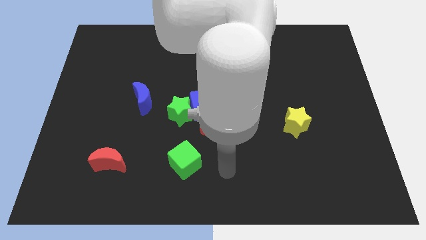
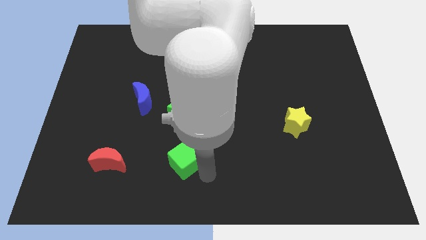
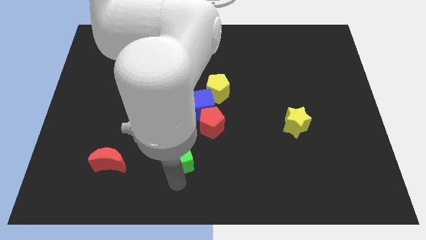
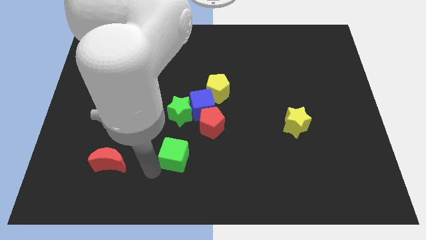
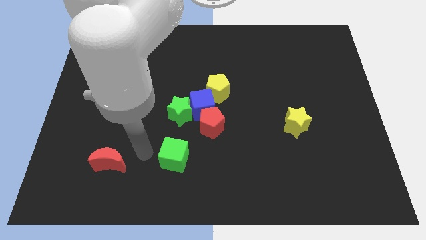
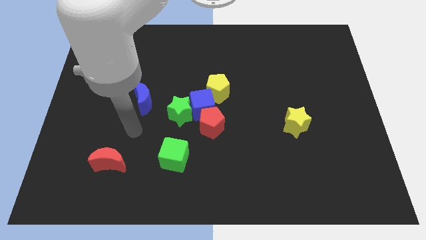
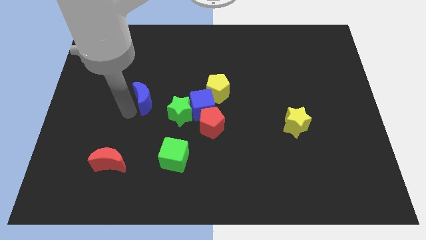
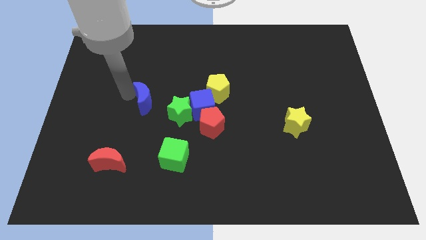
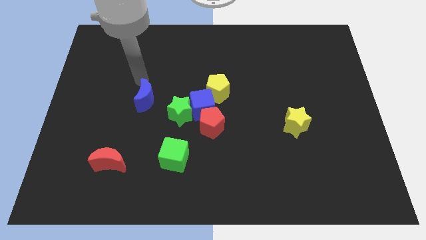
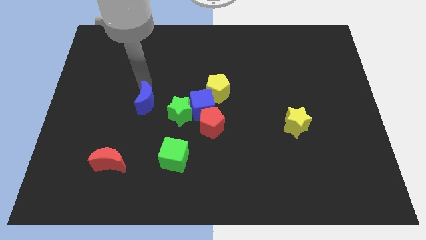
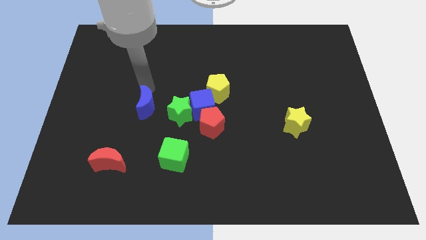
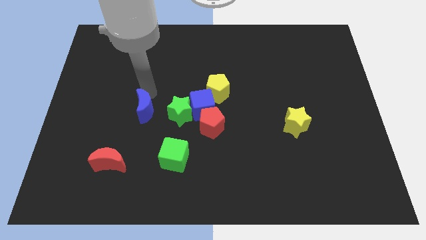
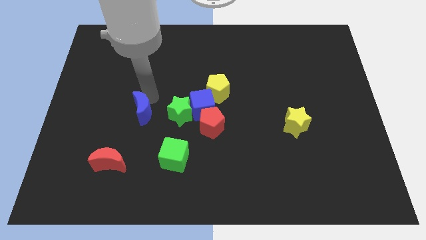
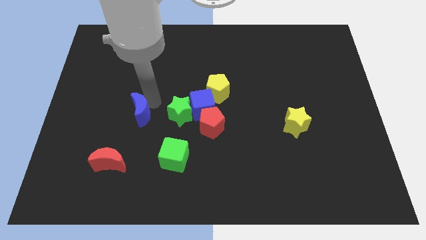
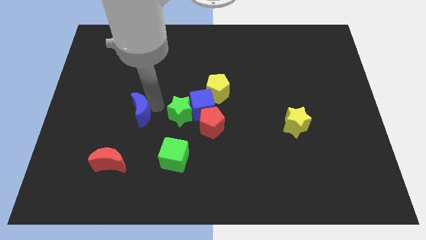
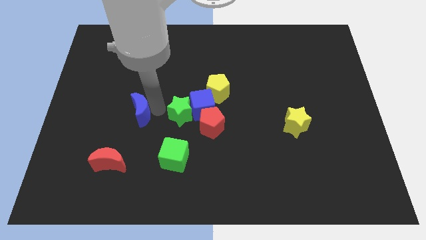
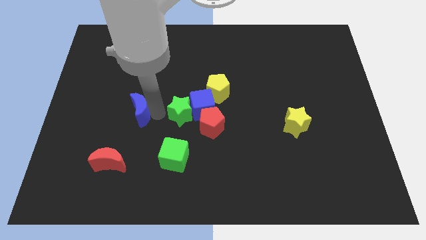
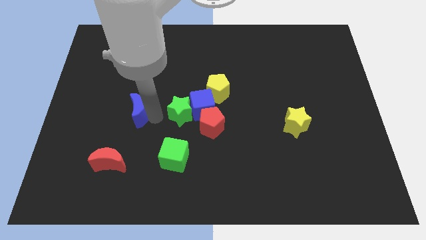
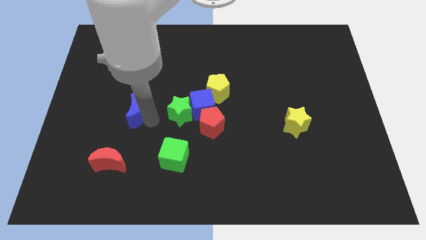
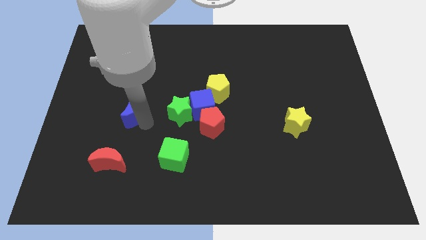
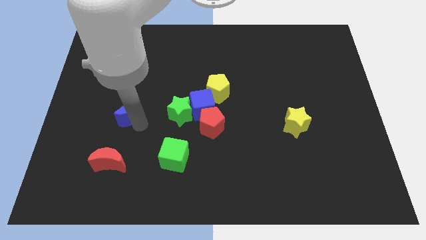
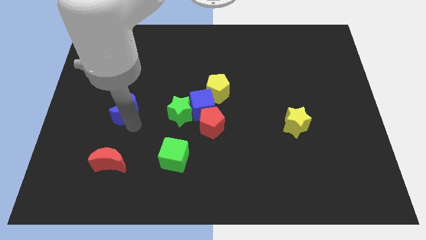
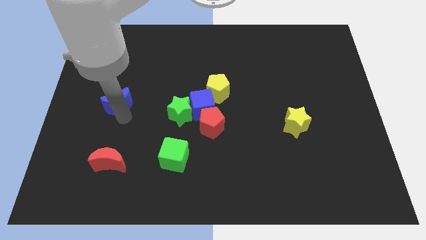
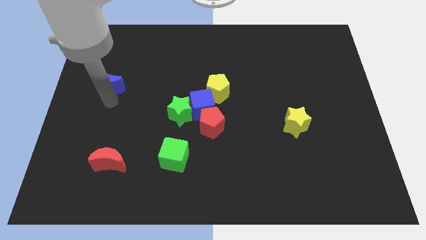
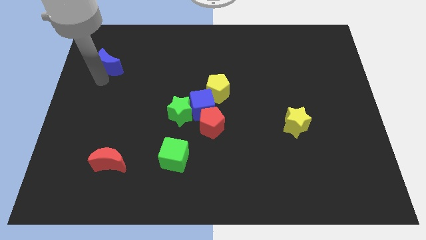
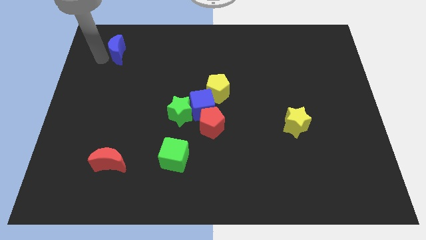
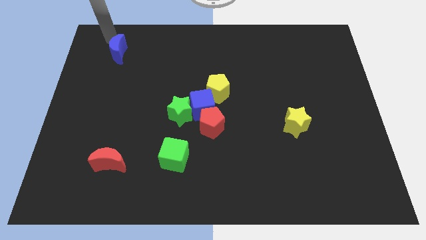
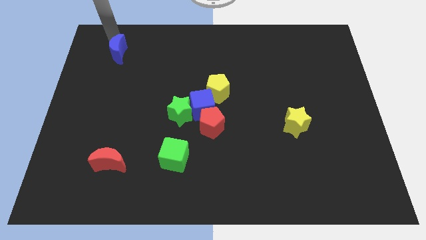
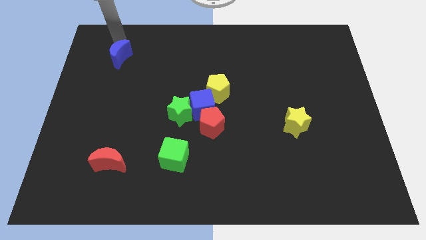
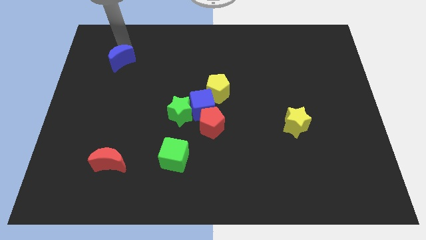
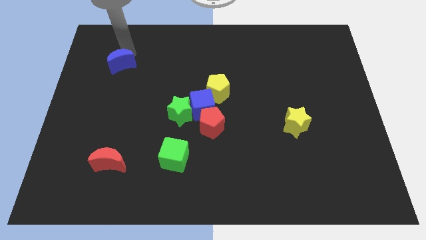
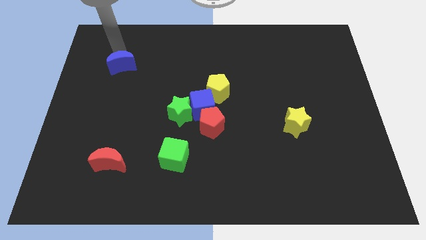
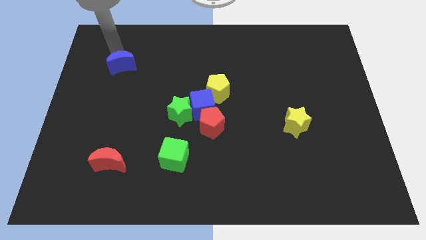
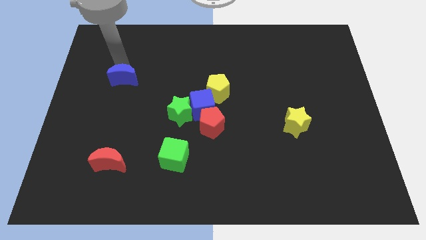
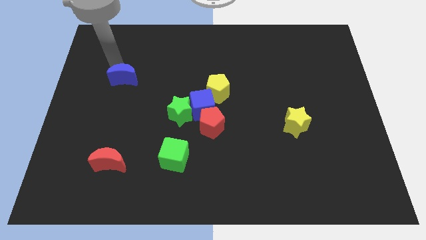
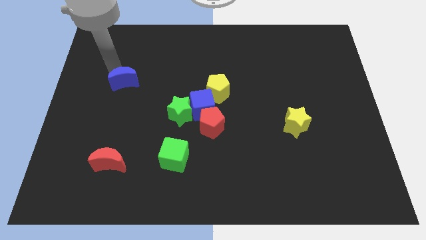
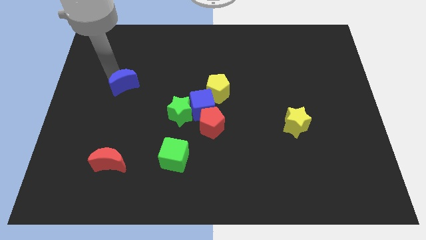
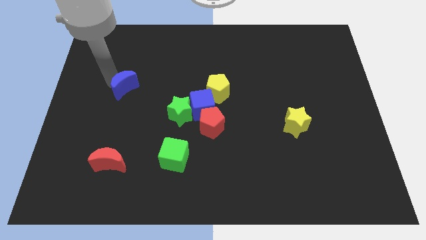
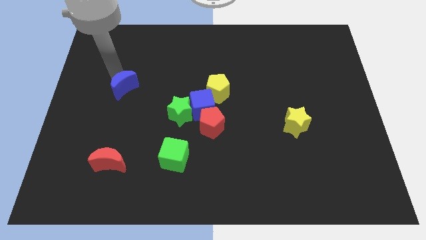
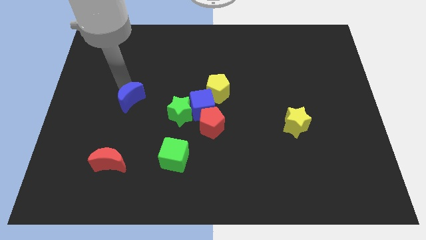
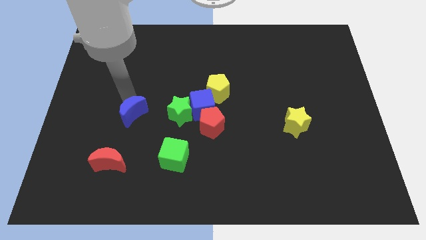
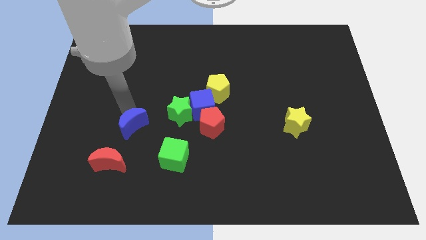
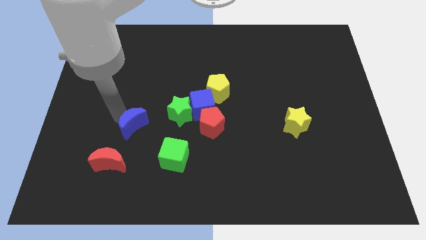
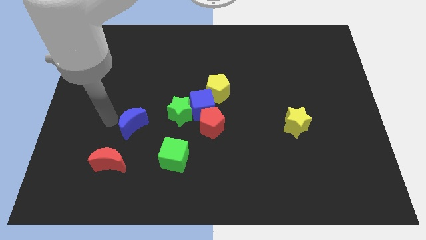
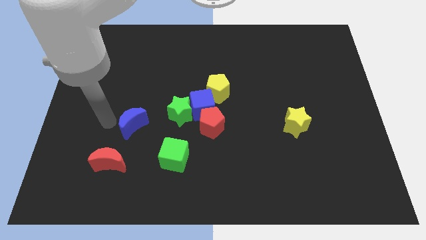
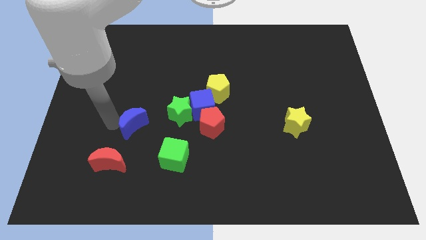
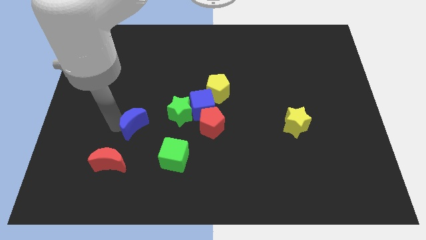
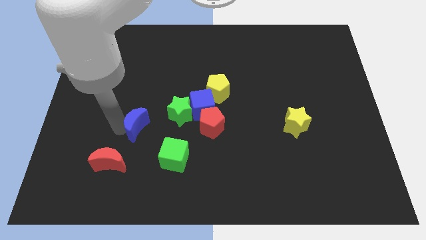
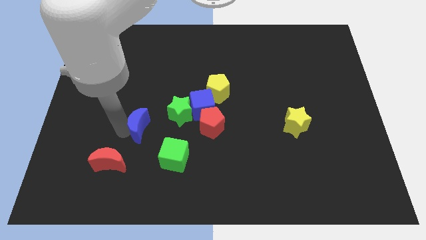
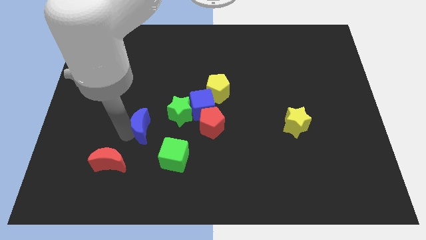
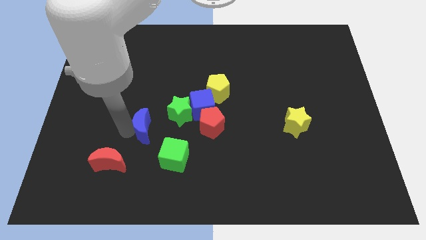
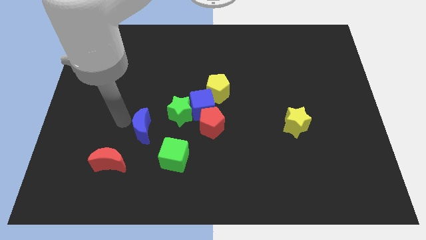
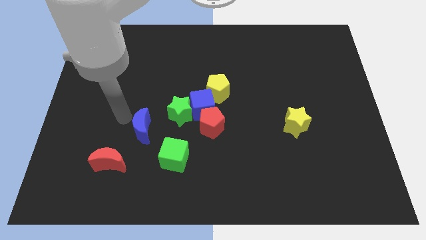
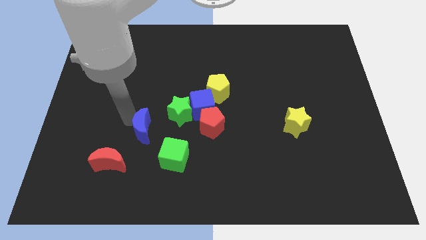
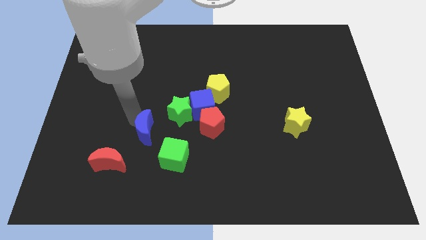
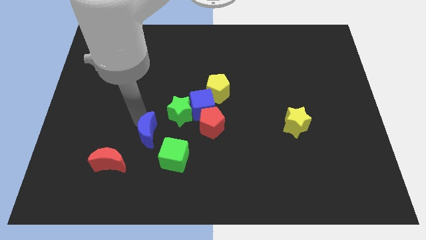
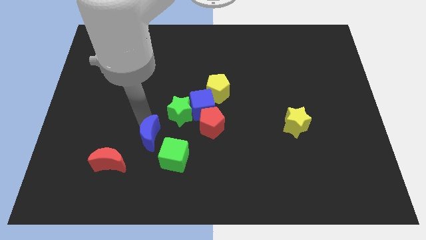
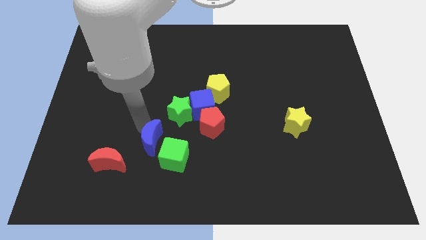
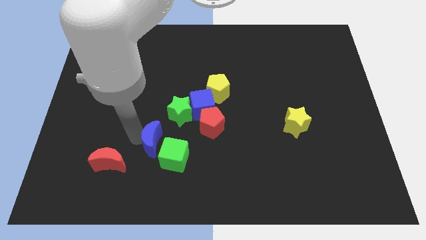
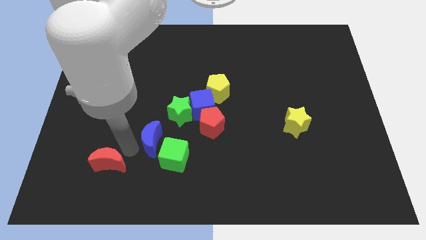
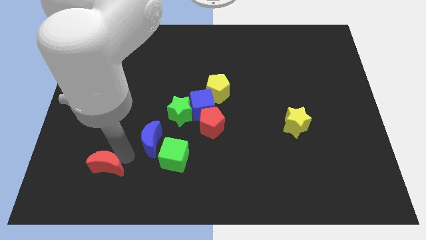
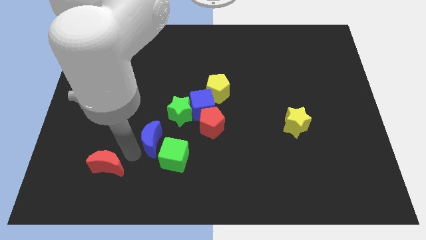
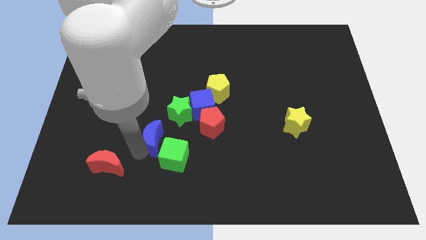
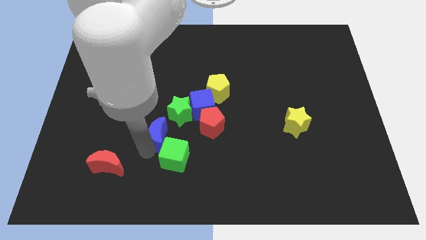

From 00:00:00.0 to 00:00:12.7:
slide the blue moon diagonally down and to the left of the blue cube
